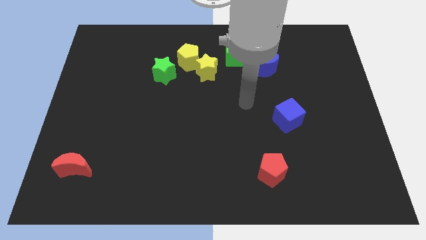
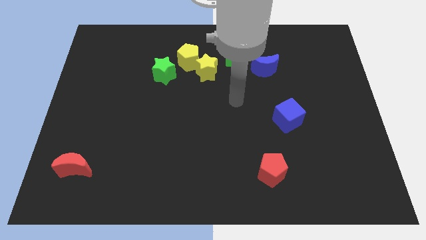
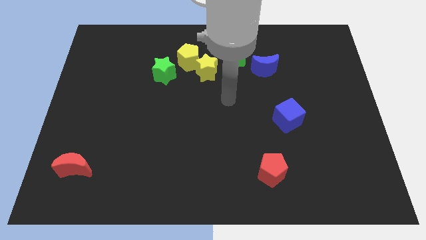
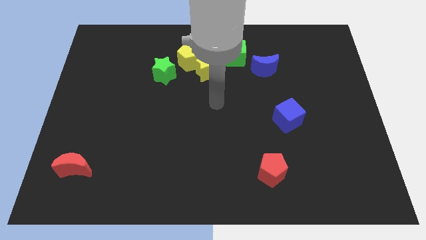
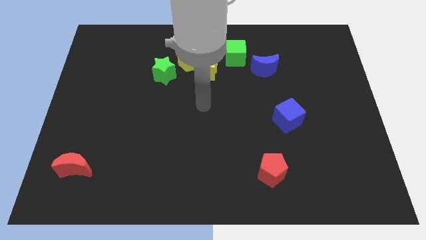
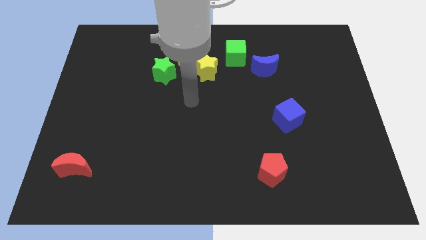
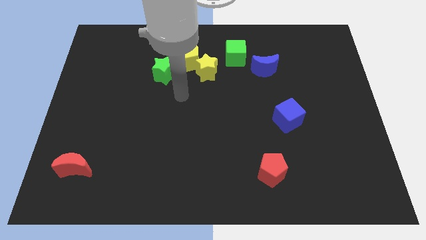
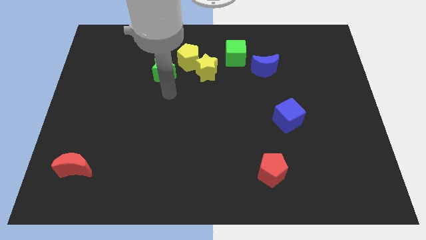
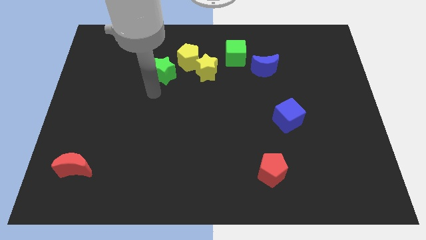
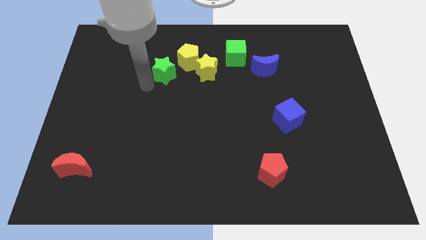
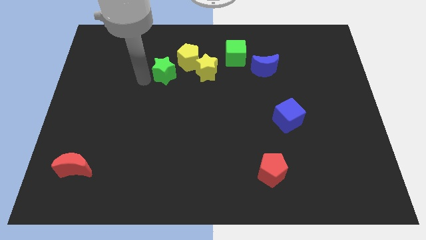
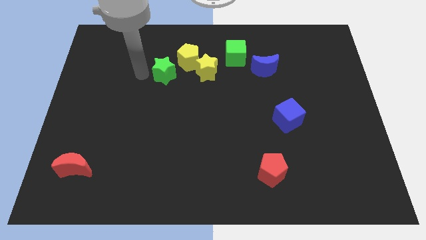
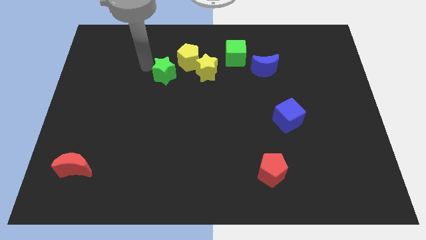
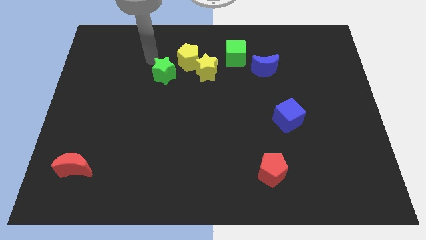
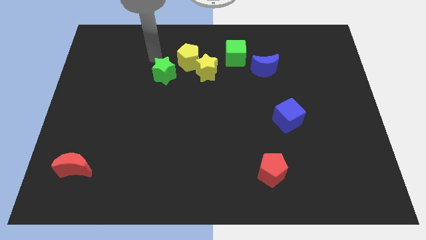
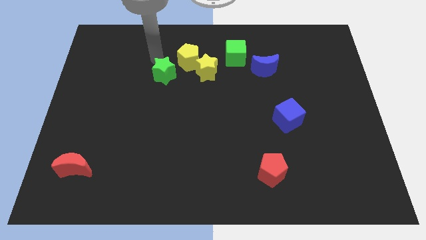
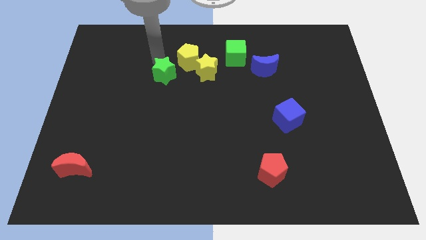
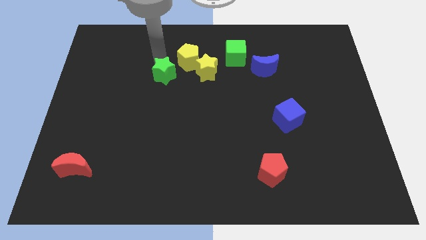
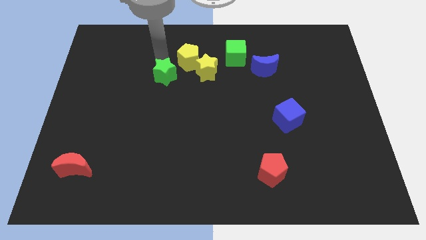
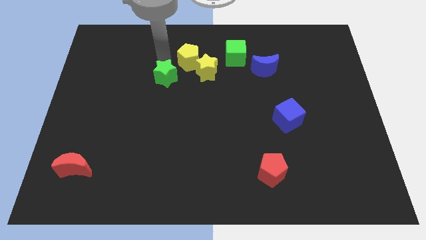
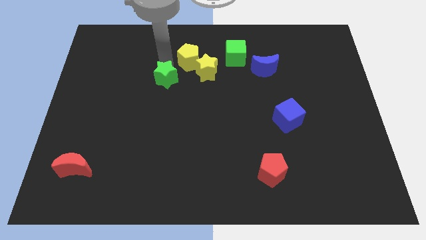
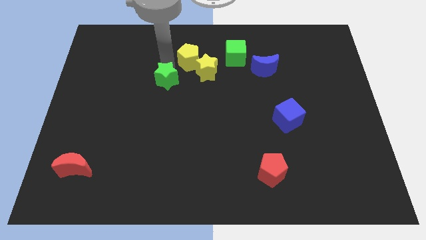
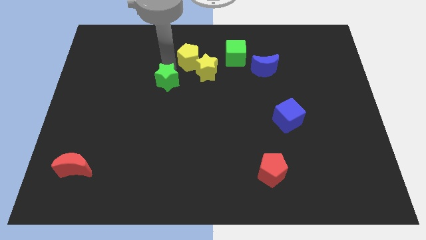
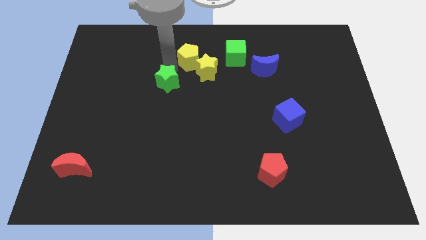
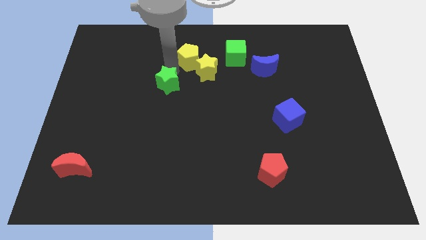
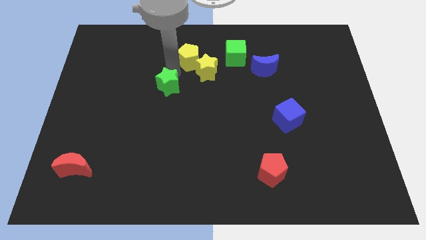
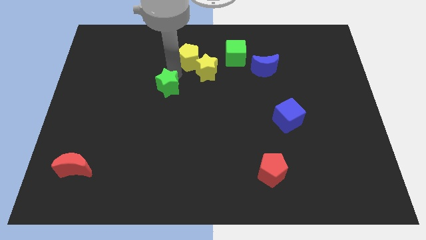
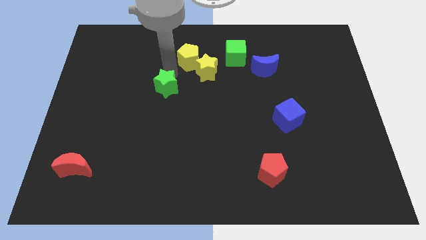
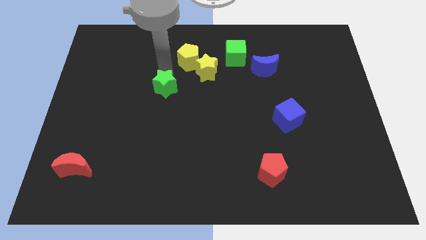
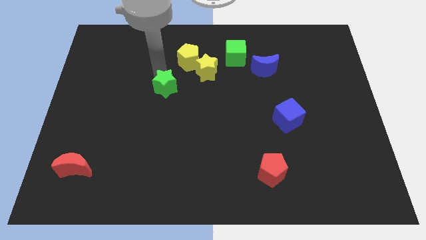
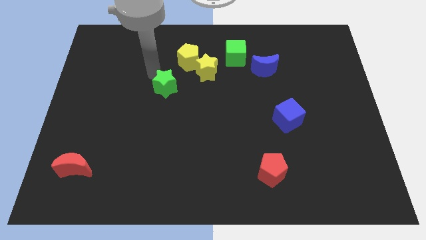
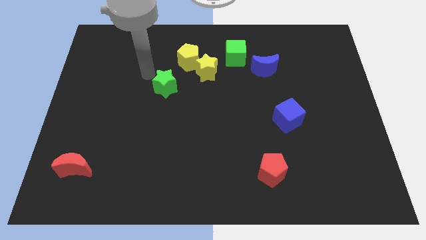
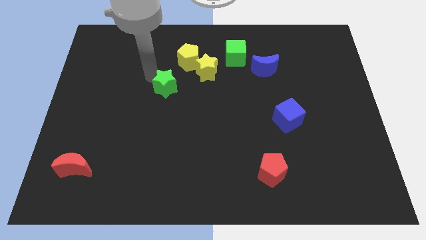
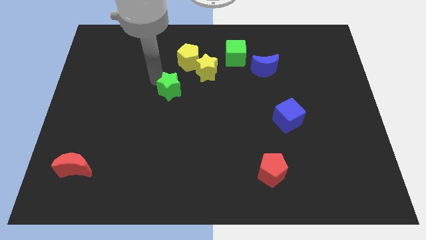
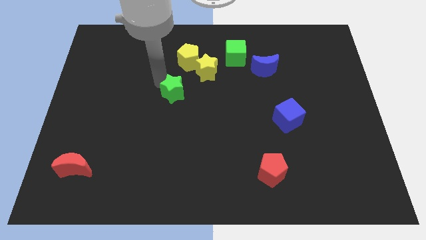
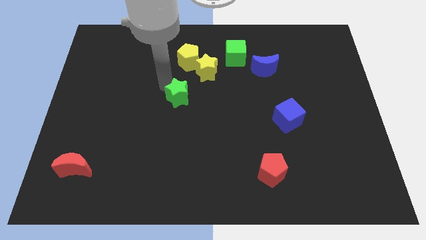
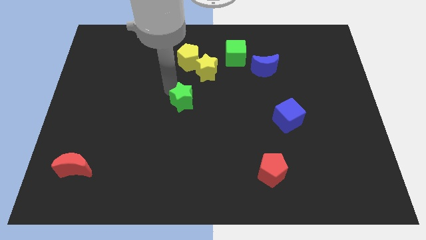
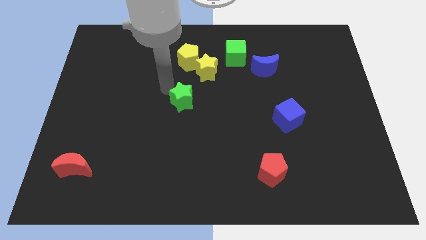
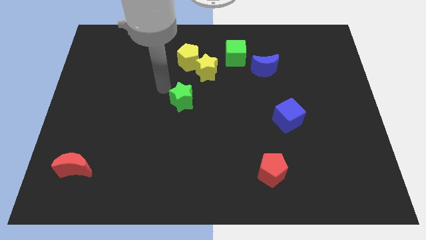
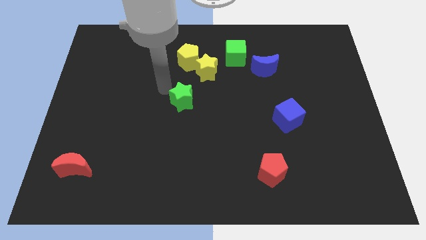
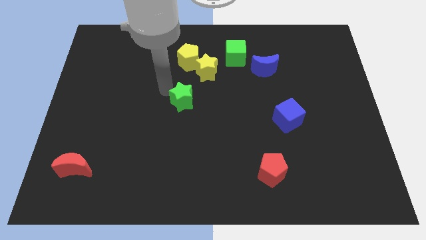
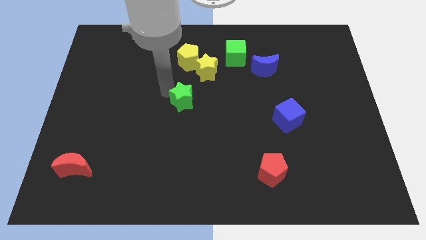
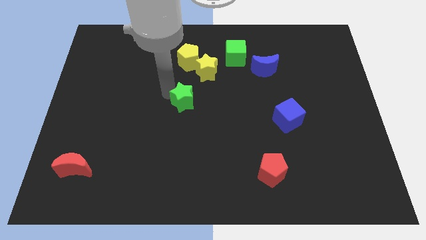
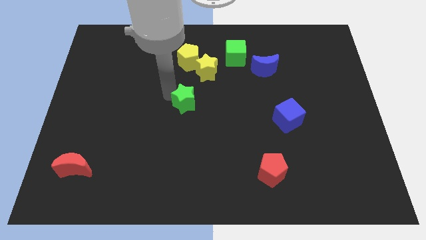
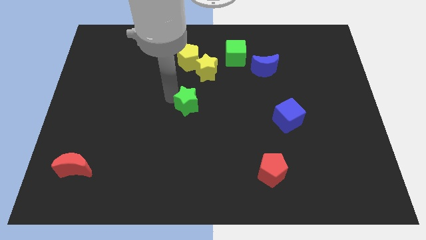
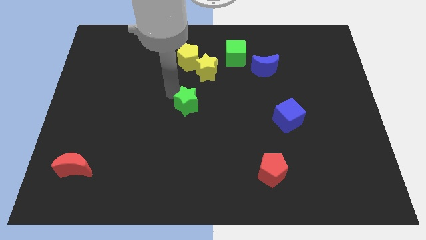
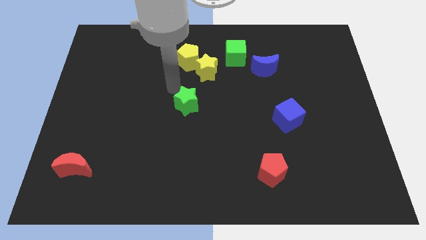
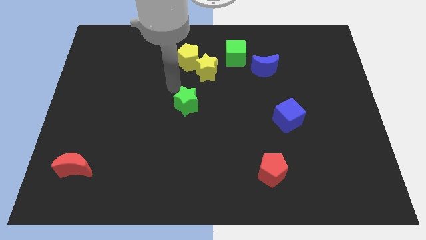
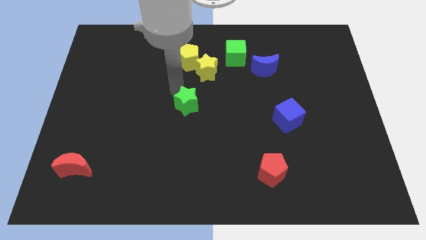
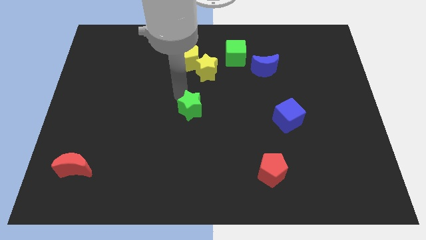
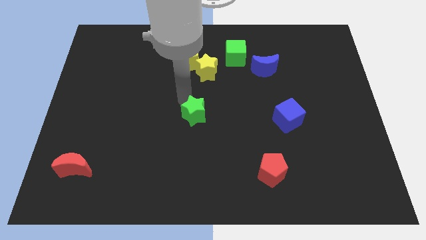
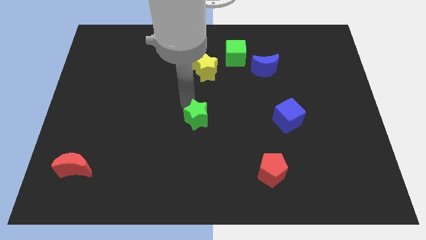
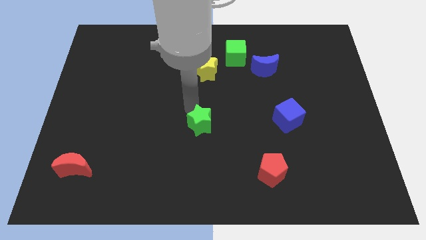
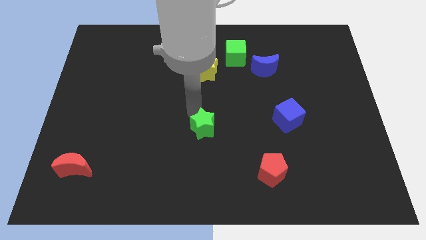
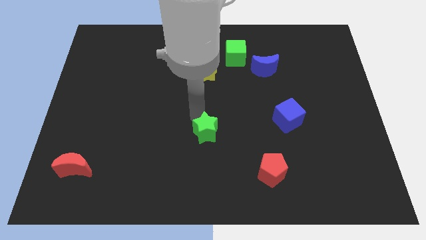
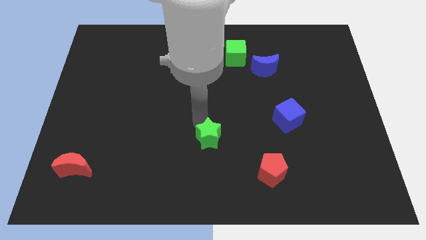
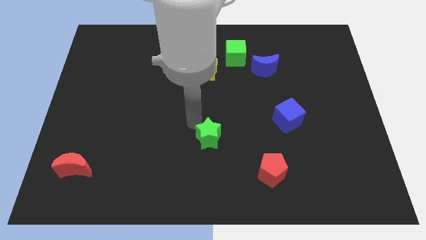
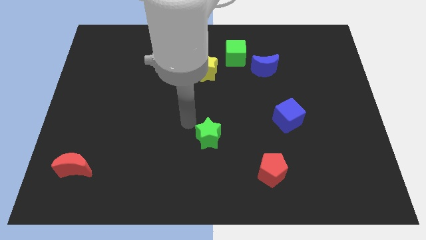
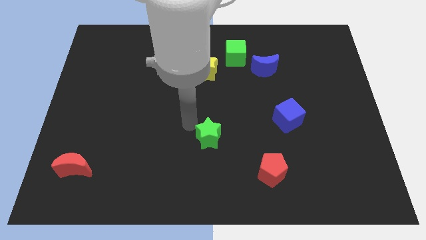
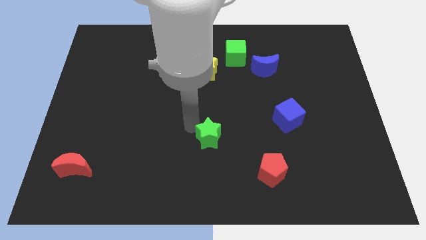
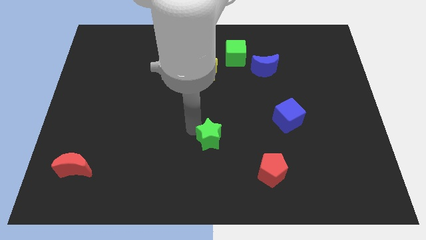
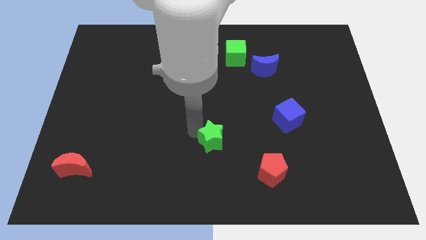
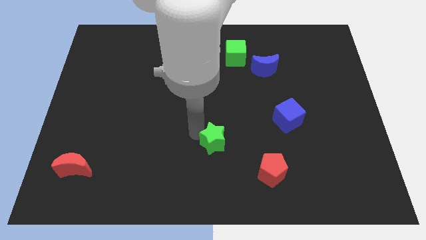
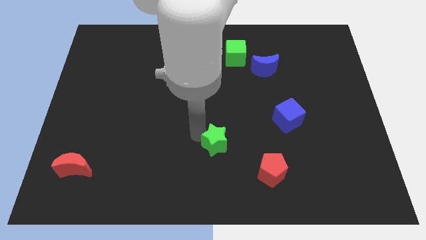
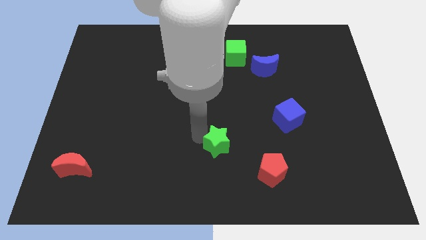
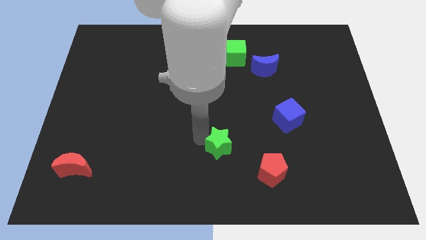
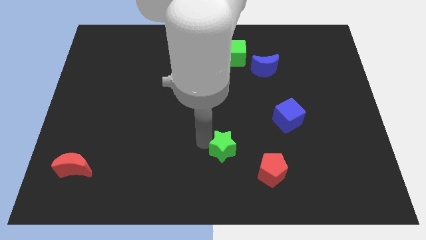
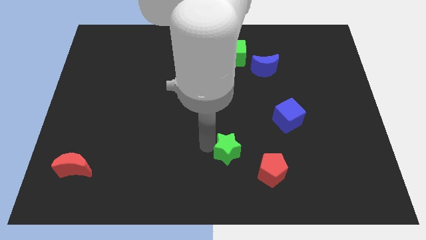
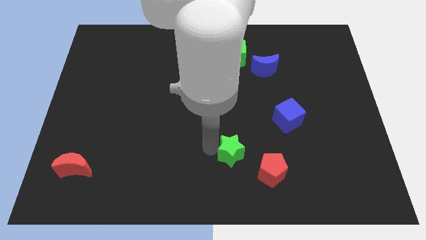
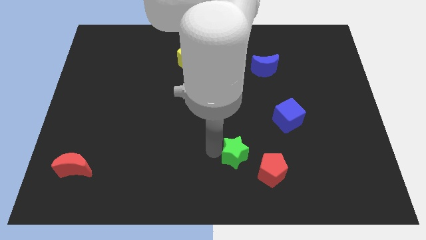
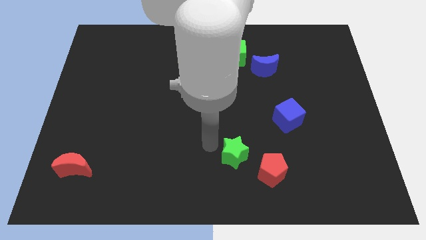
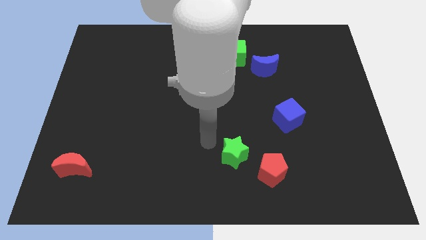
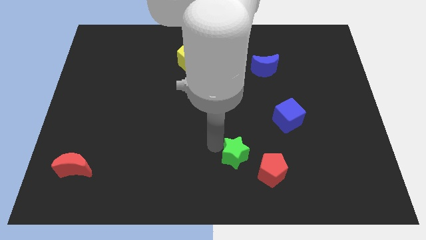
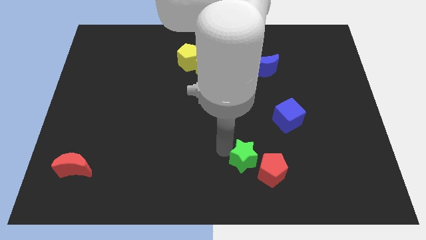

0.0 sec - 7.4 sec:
put the green star towards the red pentagon
